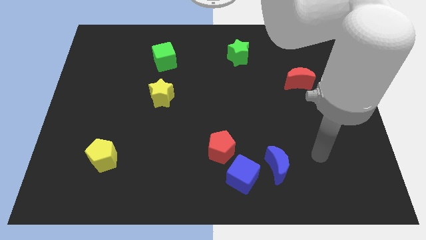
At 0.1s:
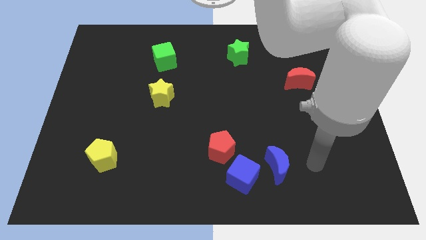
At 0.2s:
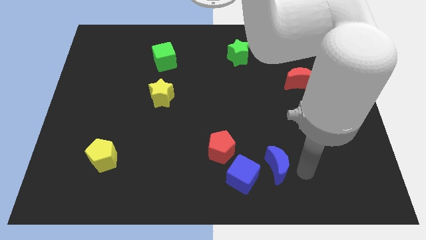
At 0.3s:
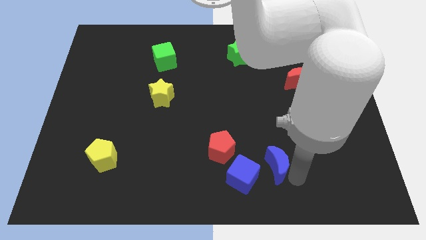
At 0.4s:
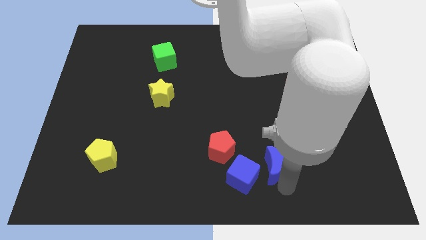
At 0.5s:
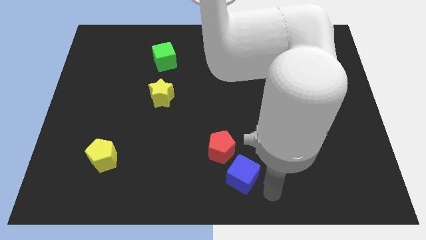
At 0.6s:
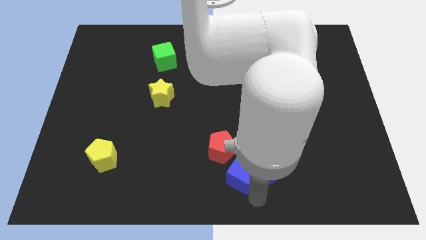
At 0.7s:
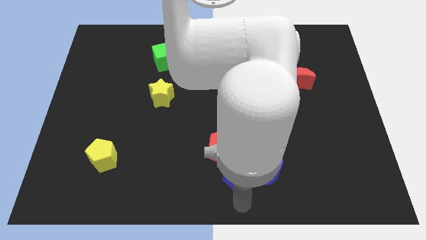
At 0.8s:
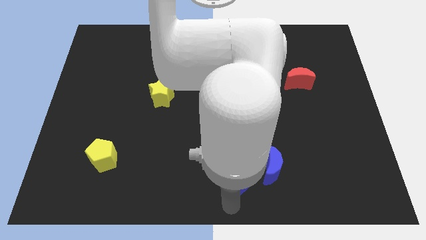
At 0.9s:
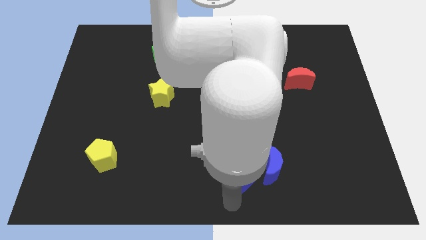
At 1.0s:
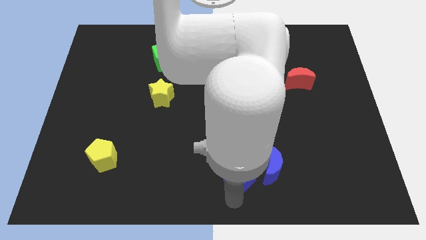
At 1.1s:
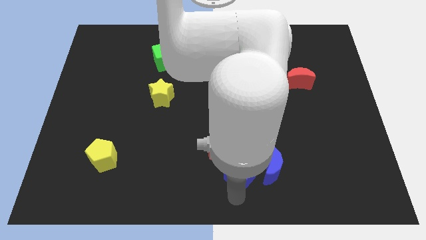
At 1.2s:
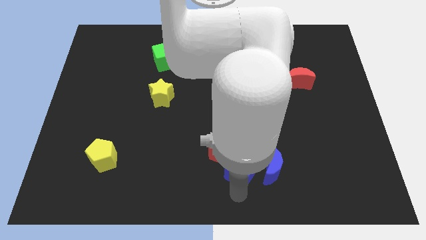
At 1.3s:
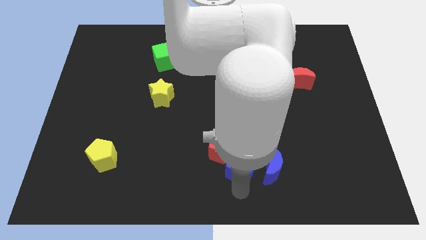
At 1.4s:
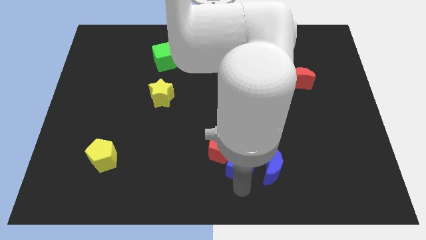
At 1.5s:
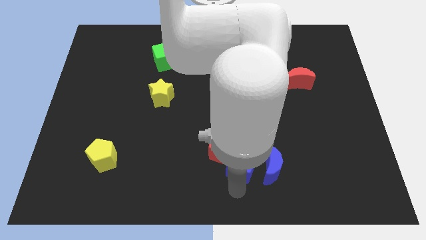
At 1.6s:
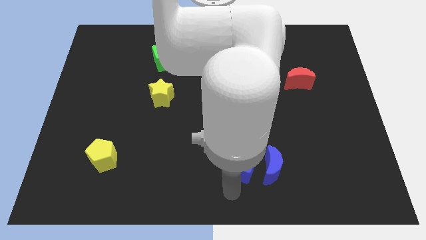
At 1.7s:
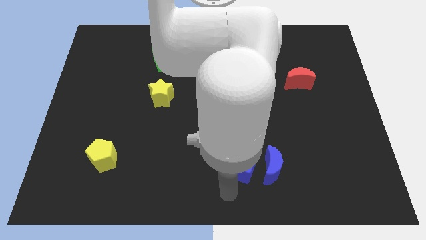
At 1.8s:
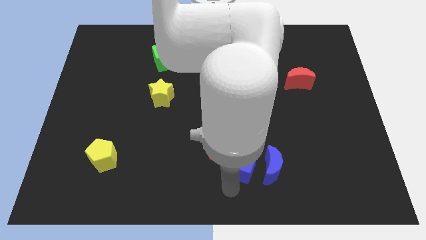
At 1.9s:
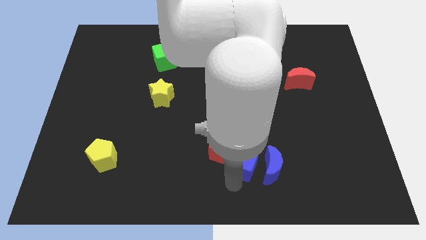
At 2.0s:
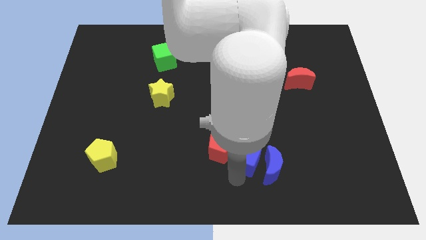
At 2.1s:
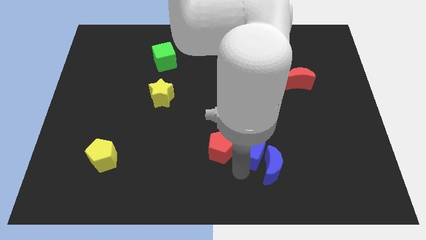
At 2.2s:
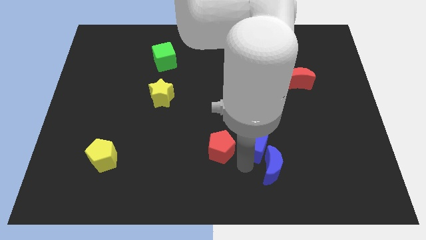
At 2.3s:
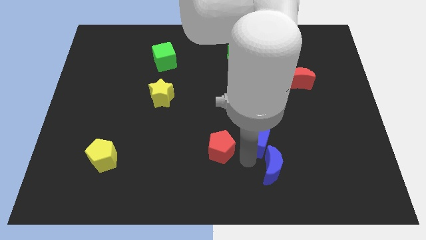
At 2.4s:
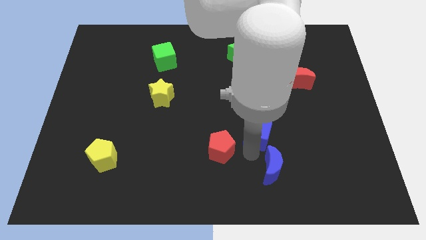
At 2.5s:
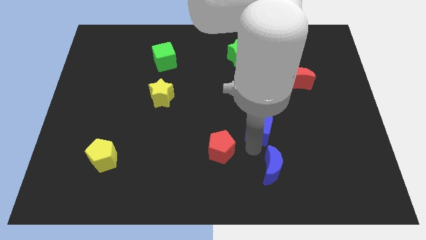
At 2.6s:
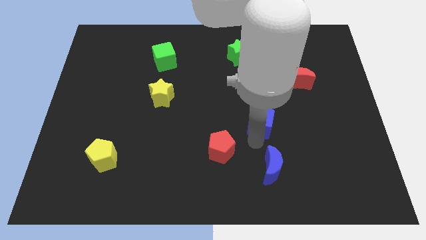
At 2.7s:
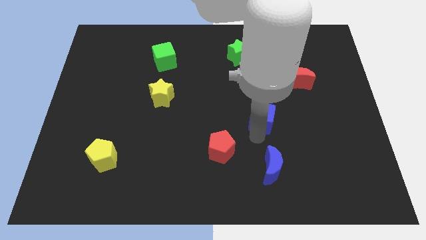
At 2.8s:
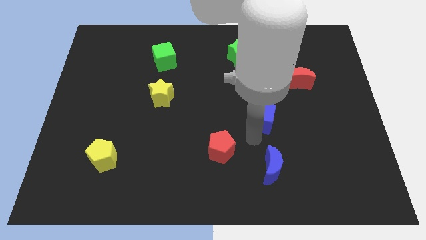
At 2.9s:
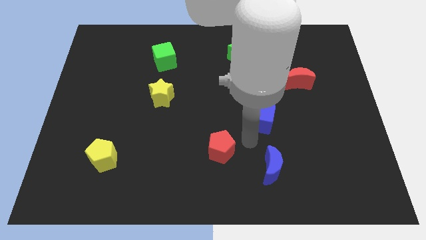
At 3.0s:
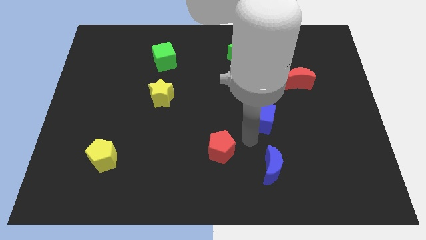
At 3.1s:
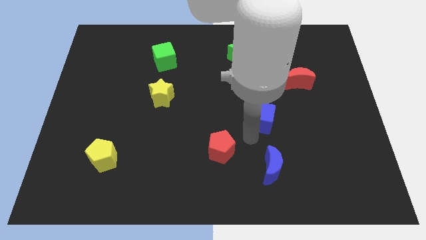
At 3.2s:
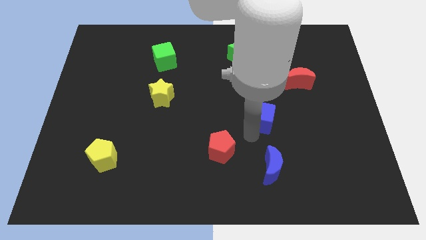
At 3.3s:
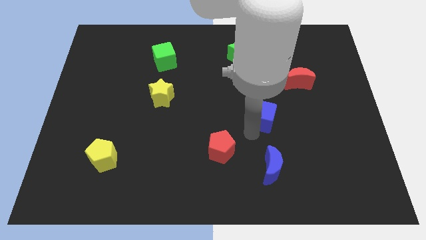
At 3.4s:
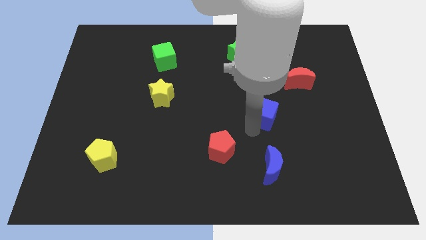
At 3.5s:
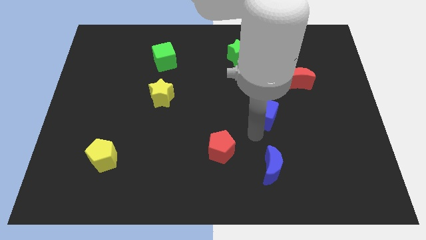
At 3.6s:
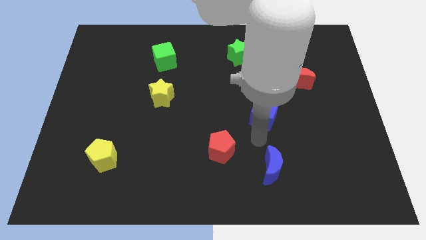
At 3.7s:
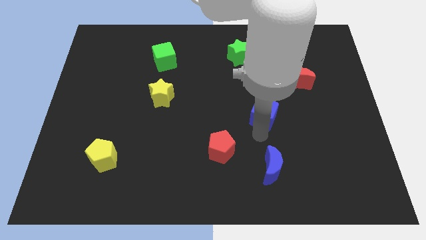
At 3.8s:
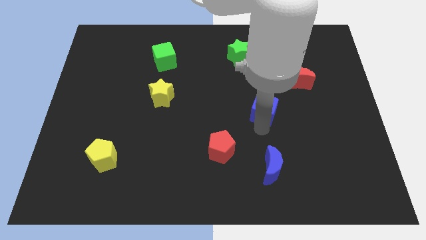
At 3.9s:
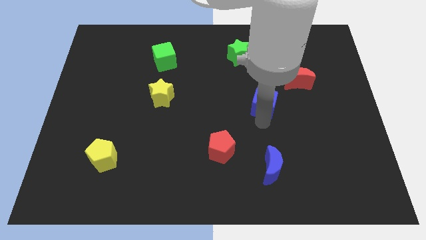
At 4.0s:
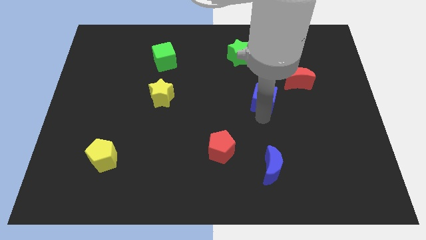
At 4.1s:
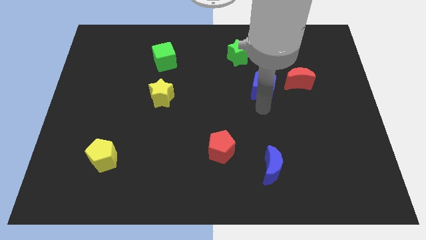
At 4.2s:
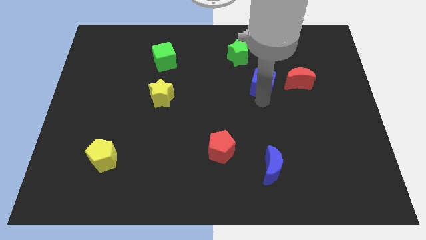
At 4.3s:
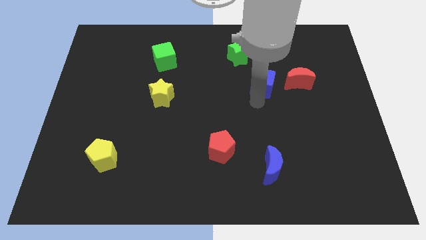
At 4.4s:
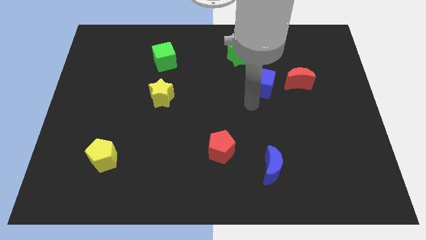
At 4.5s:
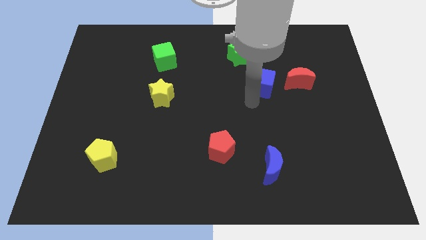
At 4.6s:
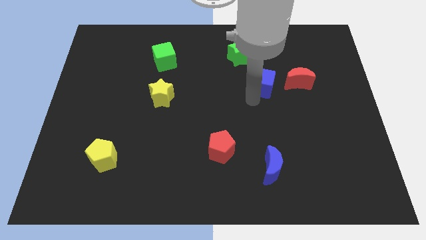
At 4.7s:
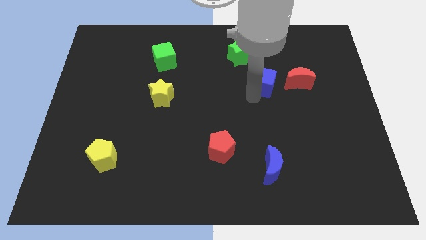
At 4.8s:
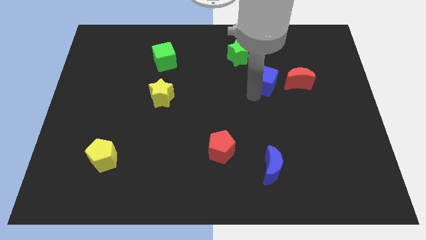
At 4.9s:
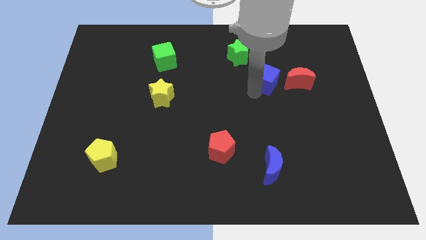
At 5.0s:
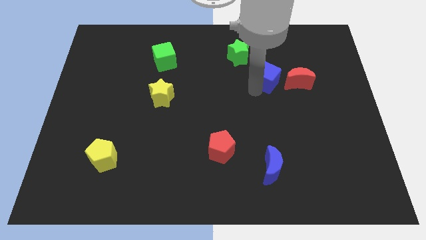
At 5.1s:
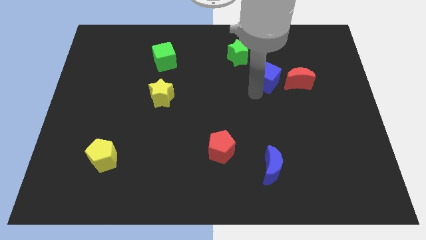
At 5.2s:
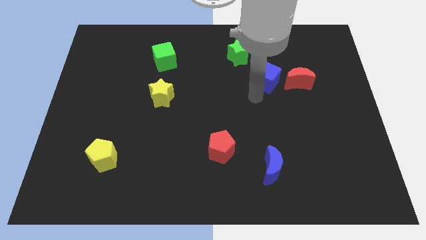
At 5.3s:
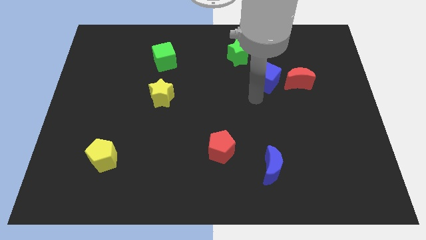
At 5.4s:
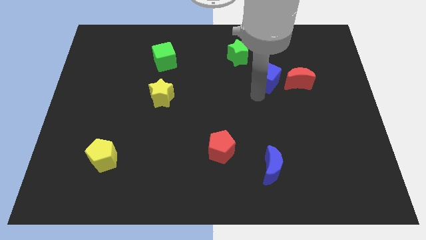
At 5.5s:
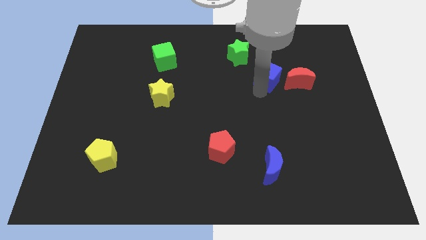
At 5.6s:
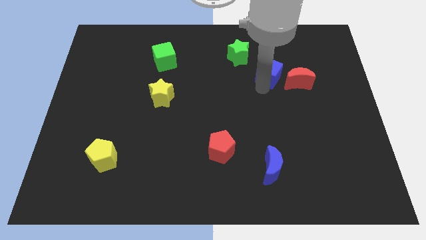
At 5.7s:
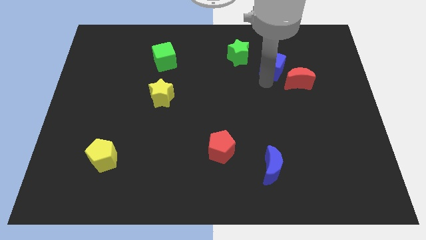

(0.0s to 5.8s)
put the blue cube to the right of the green star

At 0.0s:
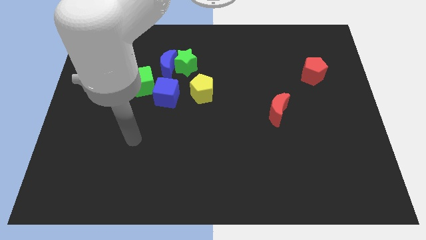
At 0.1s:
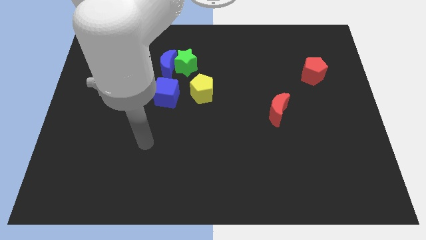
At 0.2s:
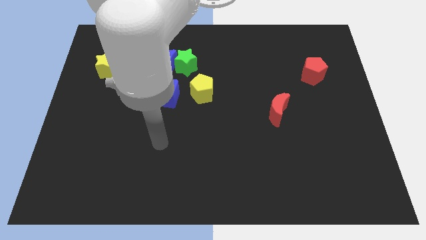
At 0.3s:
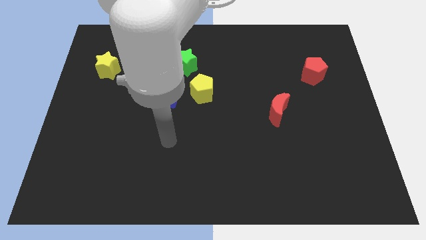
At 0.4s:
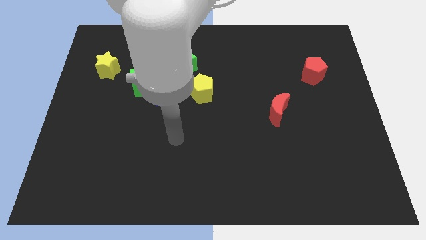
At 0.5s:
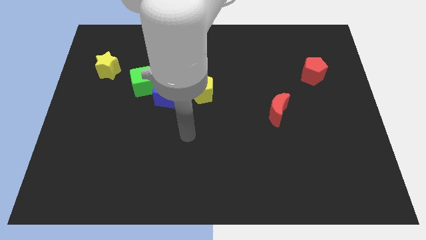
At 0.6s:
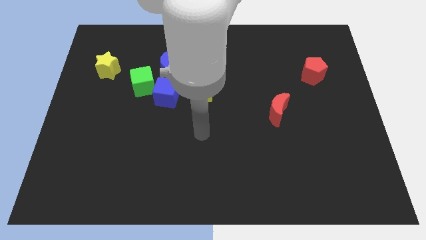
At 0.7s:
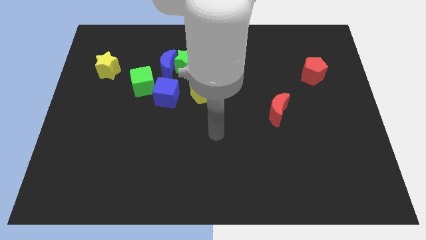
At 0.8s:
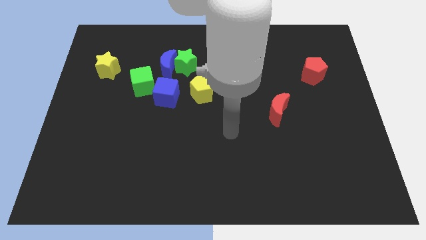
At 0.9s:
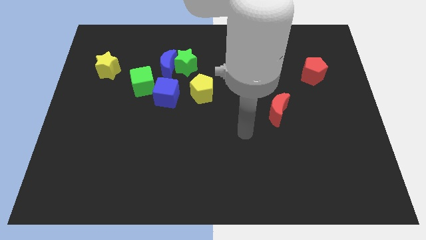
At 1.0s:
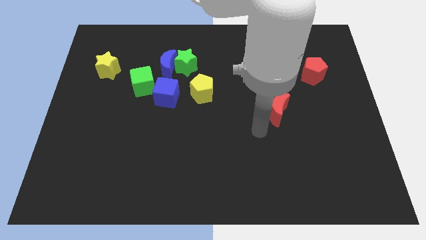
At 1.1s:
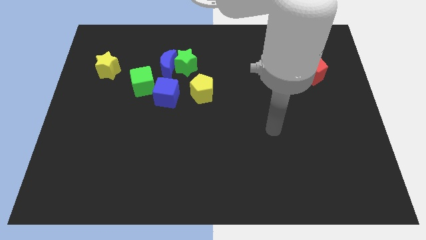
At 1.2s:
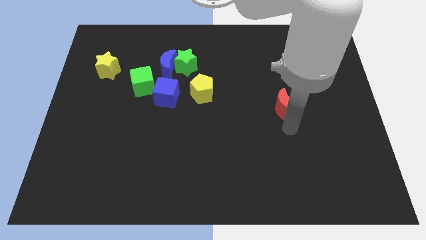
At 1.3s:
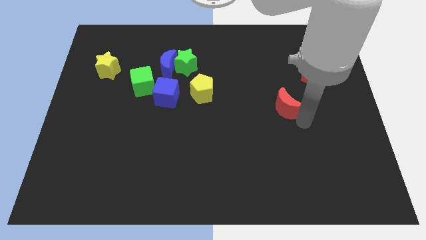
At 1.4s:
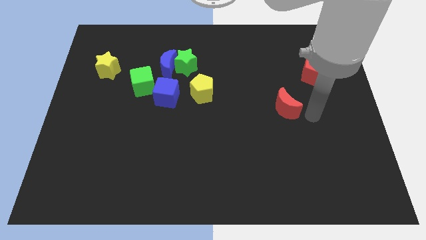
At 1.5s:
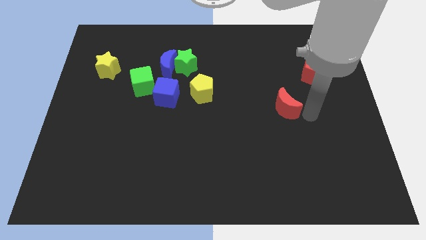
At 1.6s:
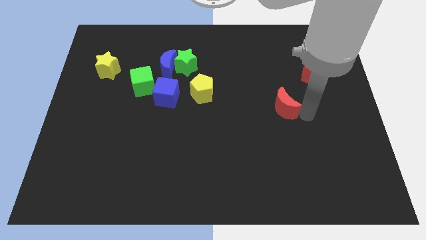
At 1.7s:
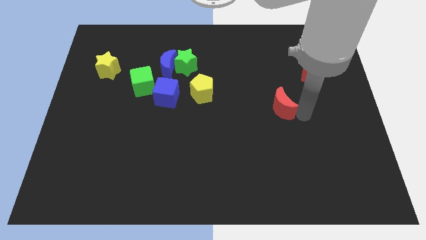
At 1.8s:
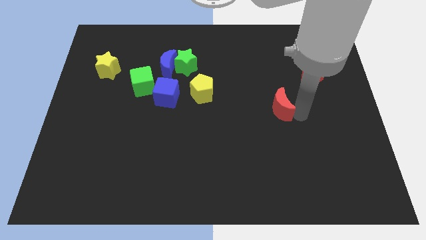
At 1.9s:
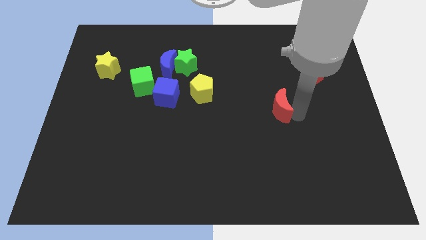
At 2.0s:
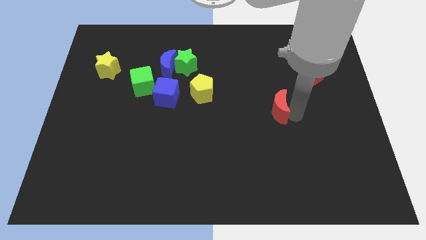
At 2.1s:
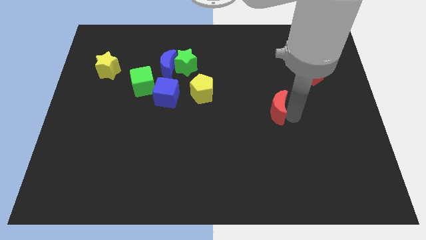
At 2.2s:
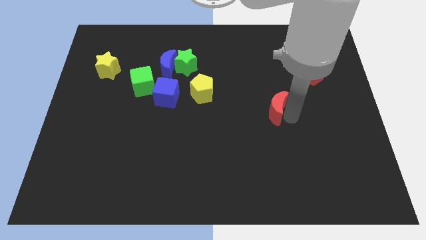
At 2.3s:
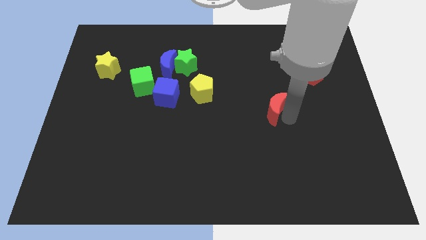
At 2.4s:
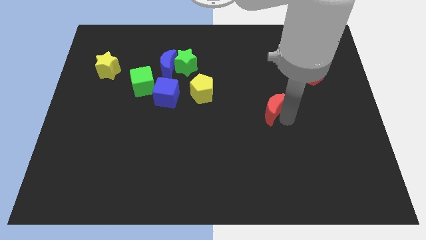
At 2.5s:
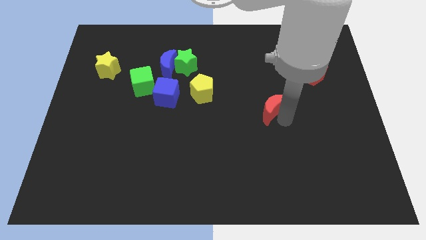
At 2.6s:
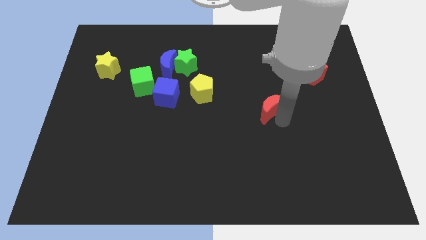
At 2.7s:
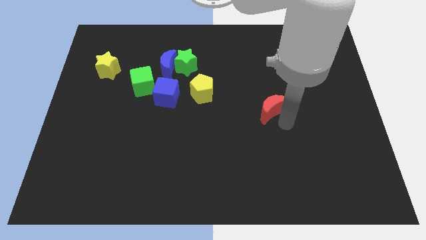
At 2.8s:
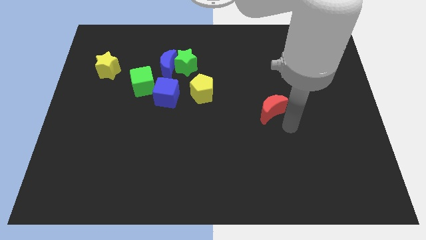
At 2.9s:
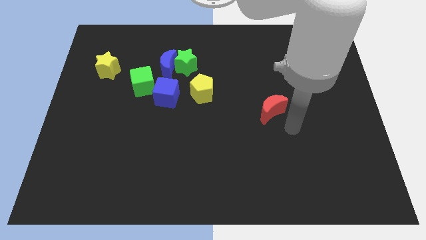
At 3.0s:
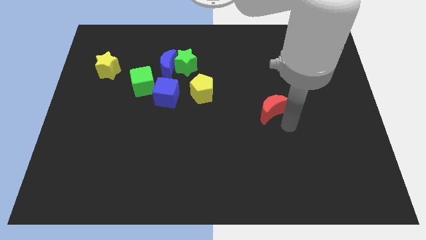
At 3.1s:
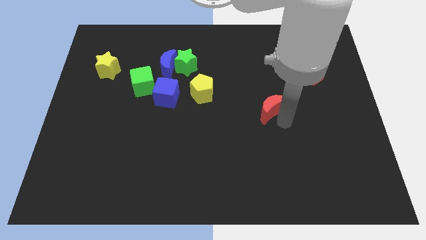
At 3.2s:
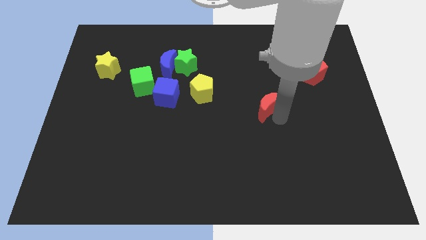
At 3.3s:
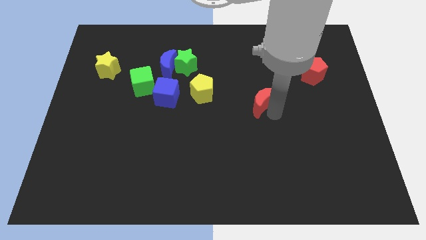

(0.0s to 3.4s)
move the red moon just right of the yellow pentagon
